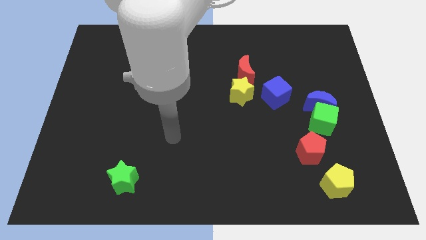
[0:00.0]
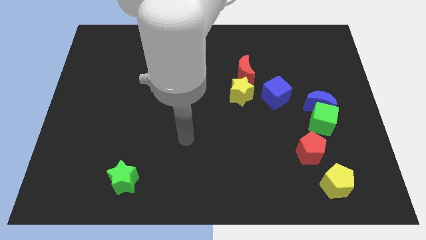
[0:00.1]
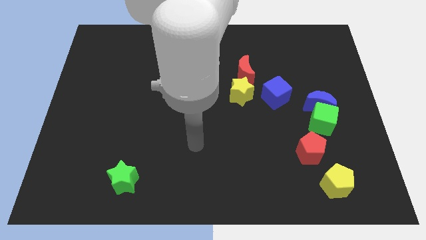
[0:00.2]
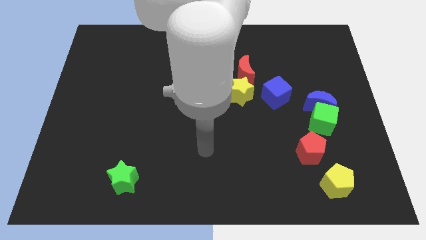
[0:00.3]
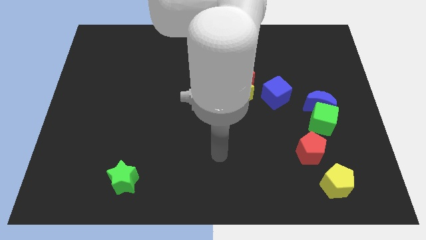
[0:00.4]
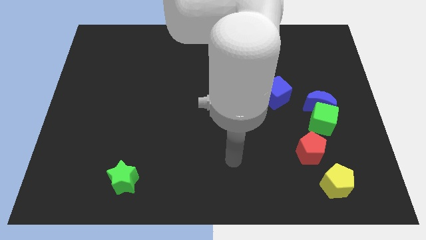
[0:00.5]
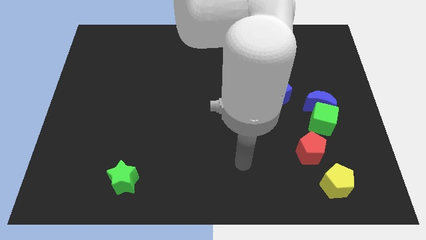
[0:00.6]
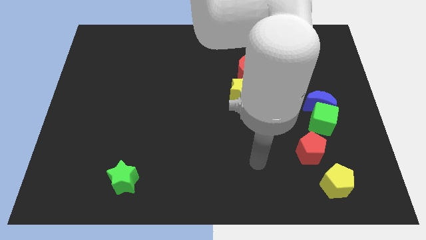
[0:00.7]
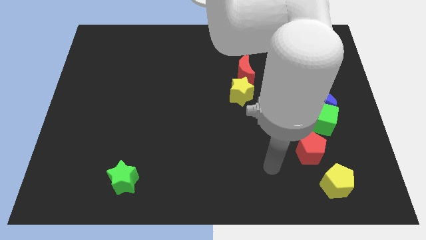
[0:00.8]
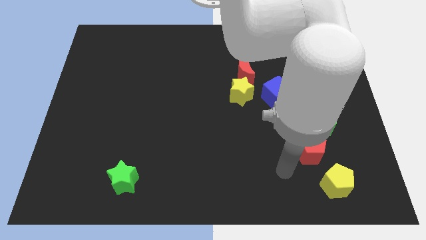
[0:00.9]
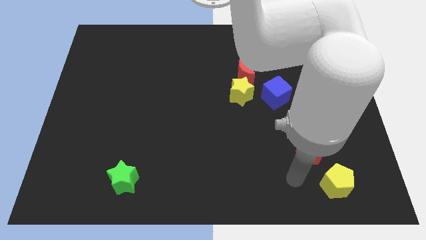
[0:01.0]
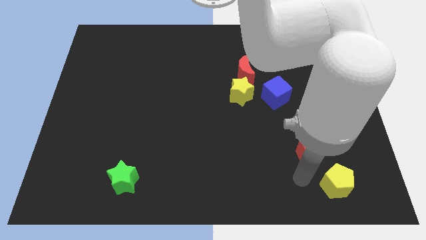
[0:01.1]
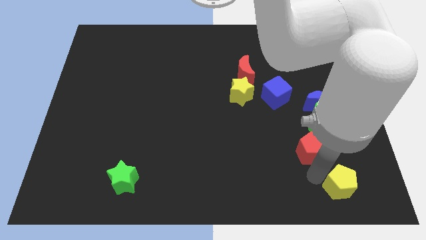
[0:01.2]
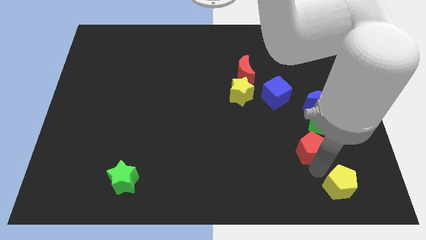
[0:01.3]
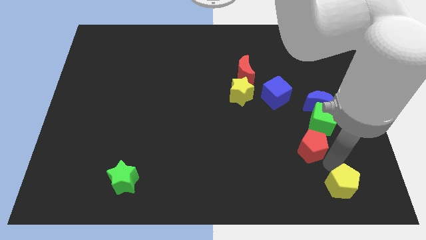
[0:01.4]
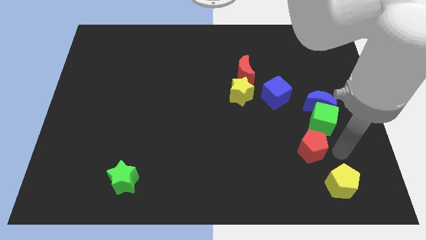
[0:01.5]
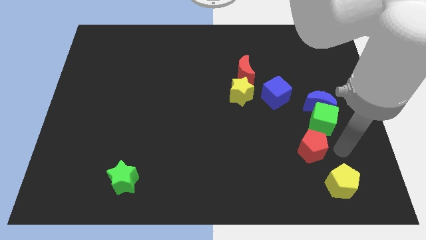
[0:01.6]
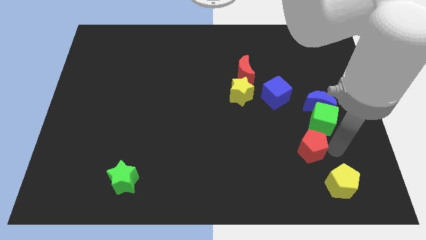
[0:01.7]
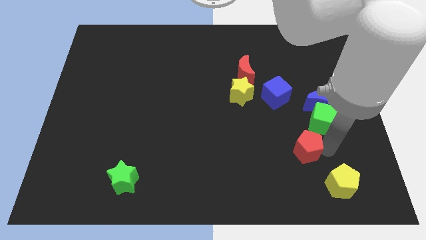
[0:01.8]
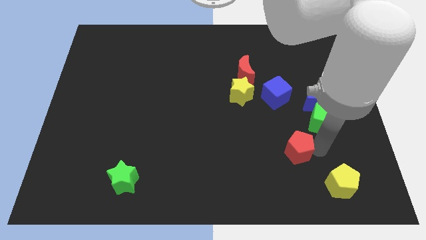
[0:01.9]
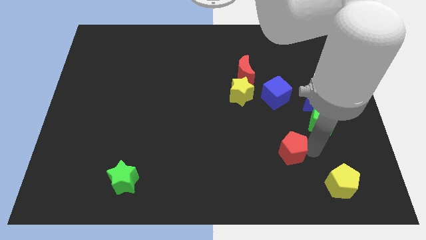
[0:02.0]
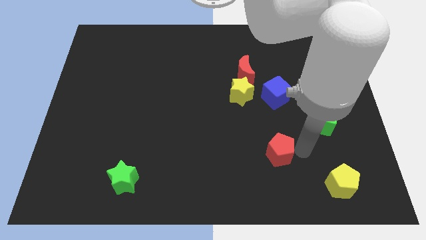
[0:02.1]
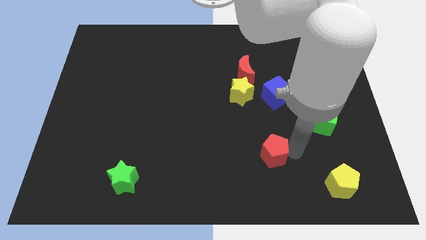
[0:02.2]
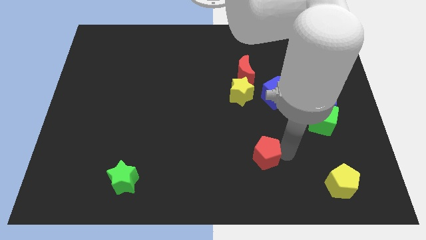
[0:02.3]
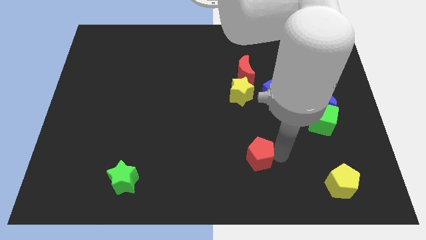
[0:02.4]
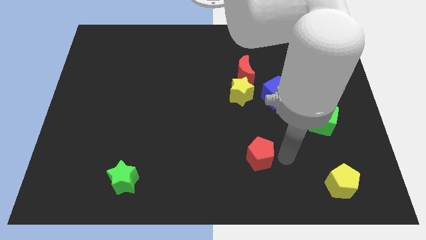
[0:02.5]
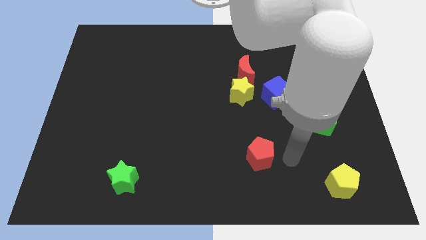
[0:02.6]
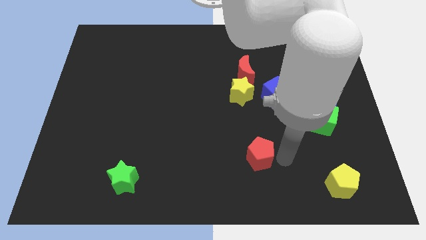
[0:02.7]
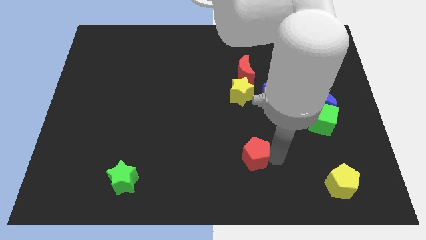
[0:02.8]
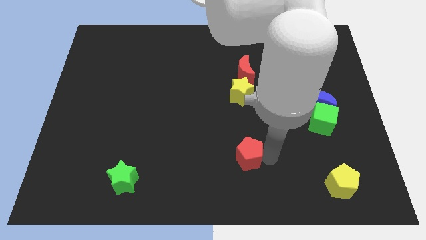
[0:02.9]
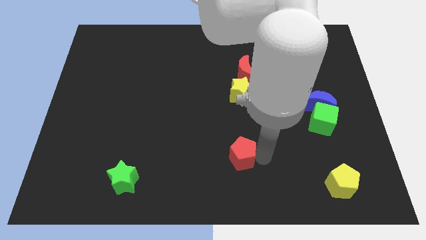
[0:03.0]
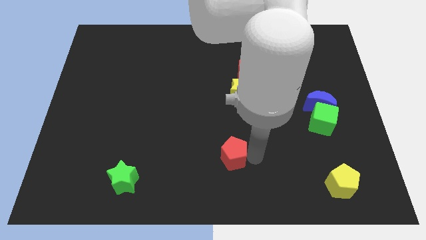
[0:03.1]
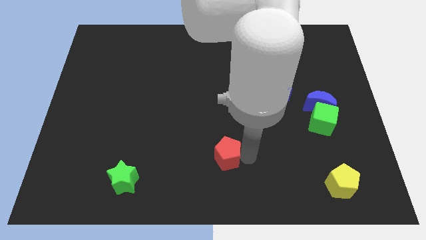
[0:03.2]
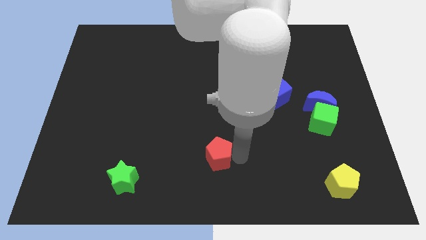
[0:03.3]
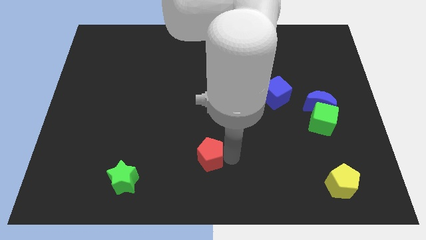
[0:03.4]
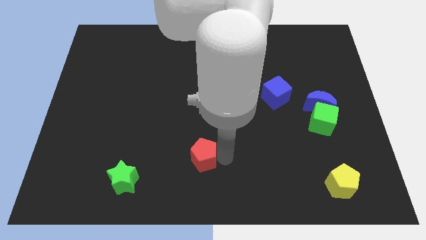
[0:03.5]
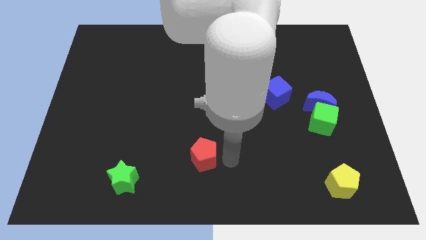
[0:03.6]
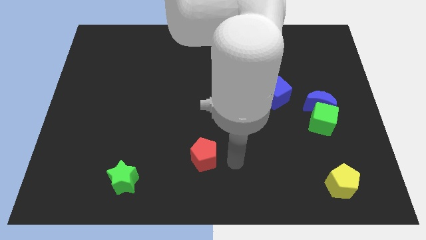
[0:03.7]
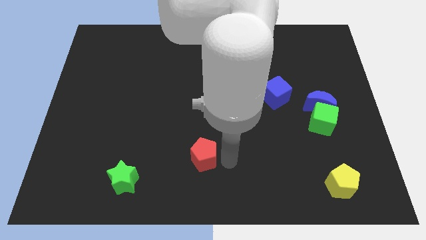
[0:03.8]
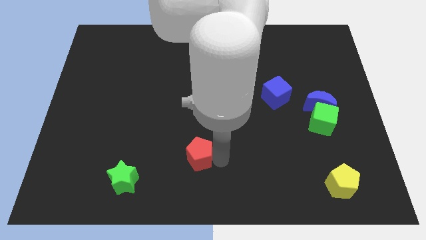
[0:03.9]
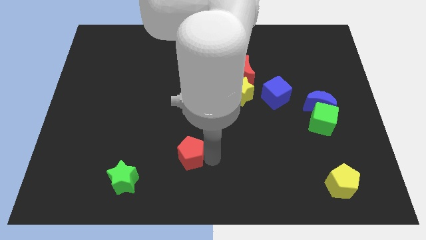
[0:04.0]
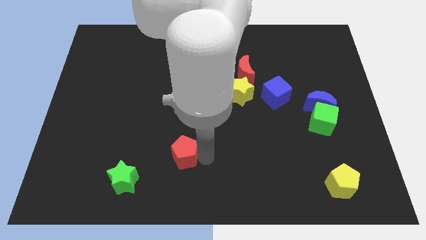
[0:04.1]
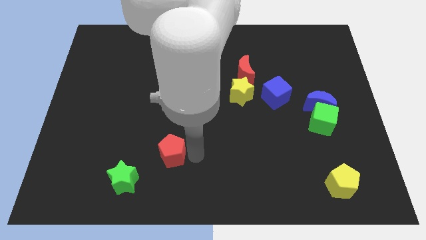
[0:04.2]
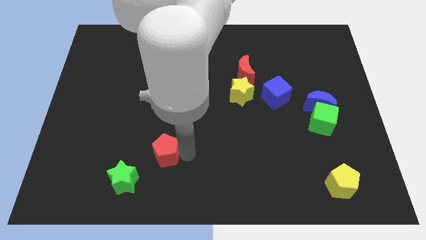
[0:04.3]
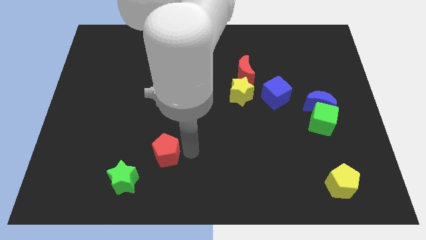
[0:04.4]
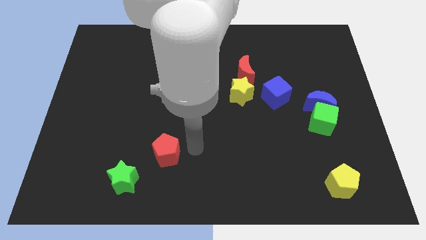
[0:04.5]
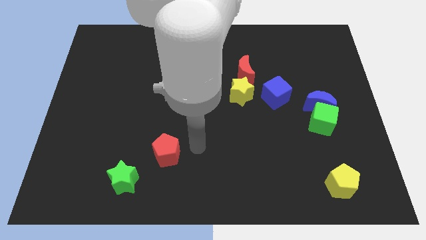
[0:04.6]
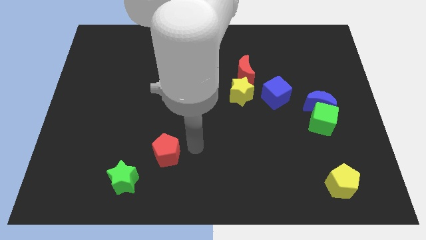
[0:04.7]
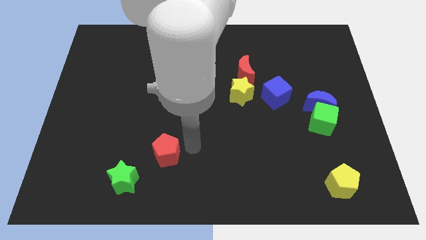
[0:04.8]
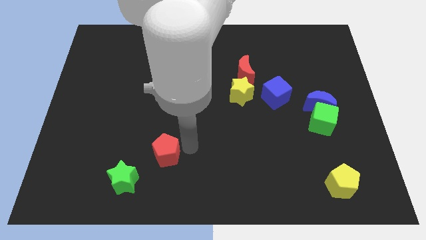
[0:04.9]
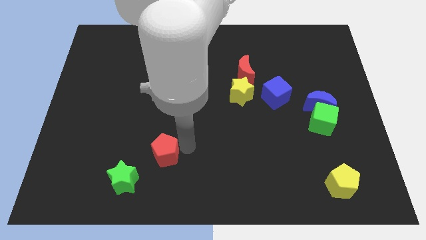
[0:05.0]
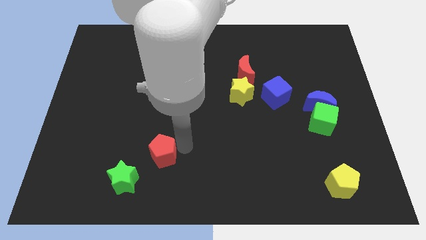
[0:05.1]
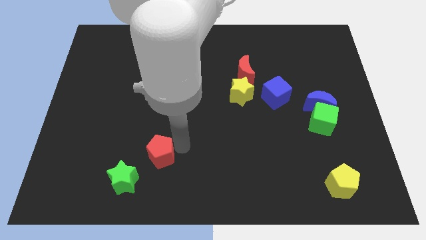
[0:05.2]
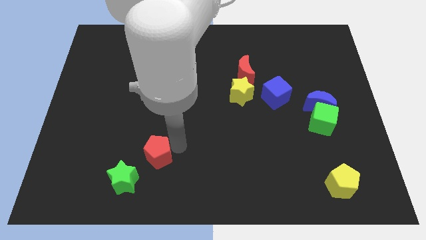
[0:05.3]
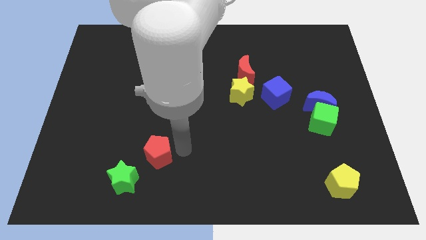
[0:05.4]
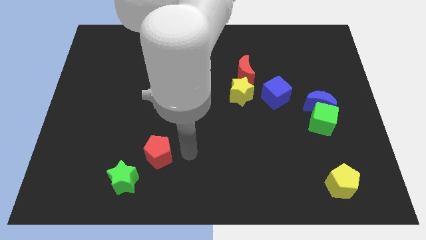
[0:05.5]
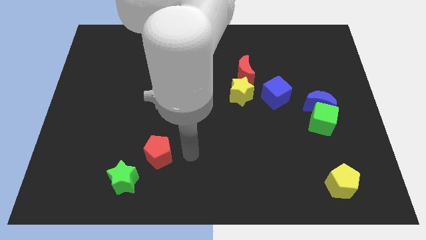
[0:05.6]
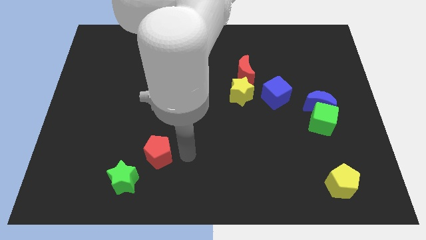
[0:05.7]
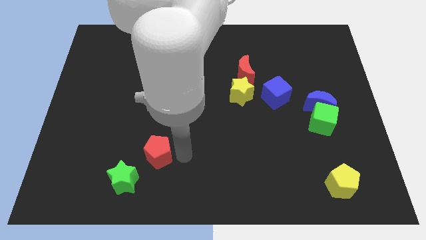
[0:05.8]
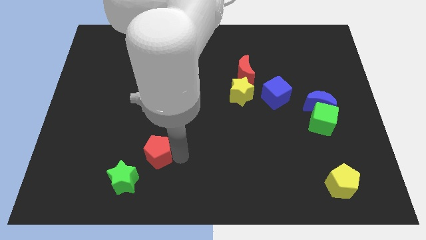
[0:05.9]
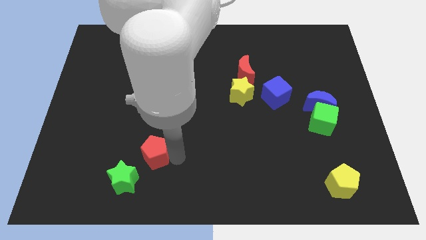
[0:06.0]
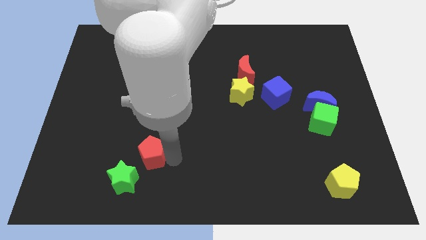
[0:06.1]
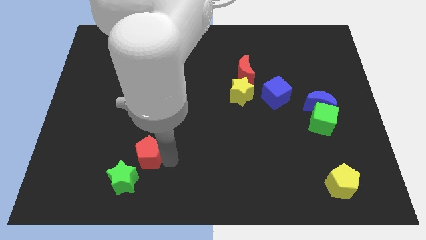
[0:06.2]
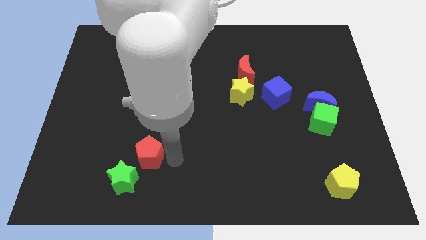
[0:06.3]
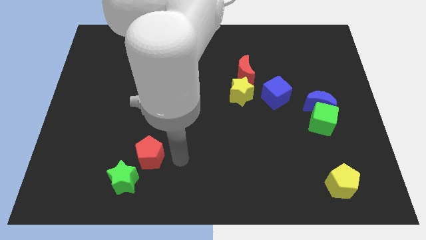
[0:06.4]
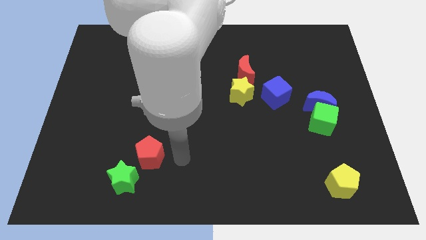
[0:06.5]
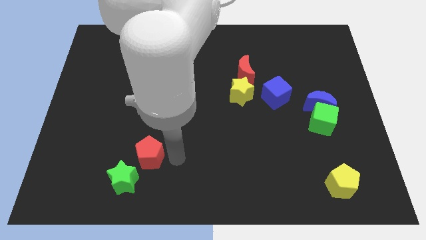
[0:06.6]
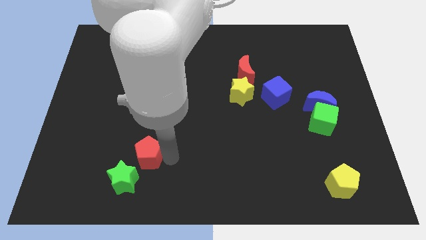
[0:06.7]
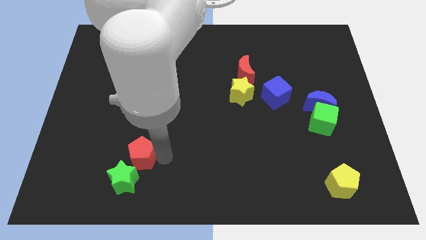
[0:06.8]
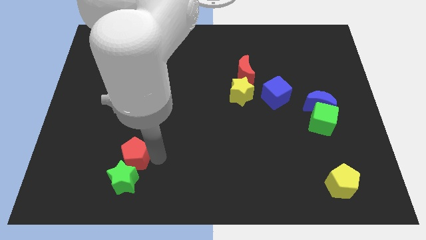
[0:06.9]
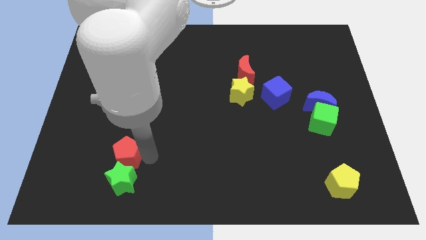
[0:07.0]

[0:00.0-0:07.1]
move the red pentagon to the top left of the green star

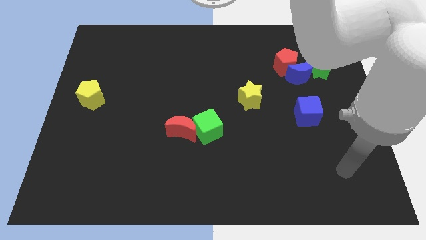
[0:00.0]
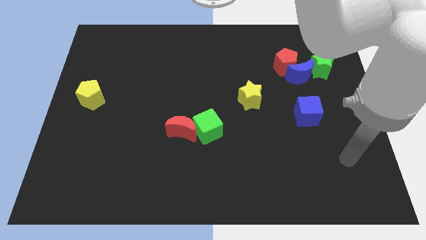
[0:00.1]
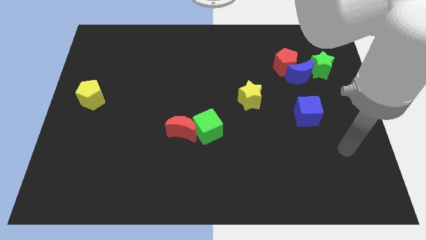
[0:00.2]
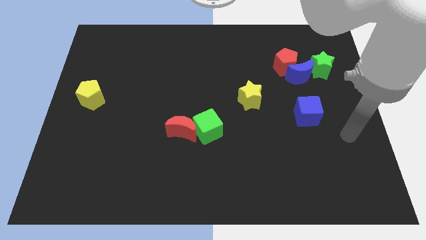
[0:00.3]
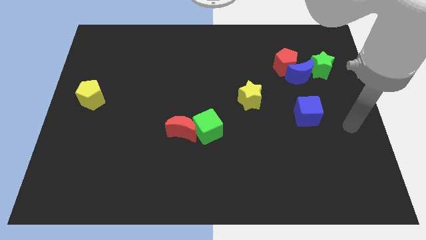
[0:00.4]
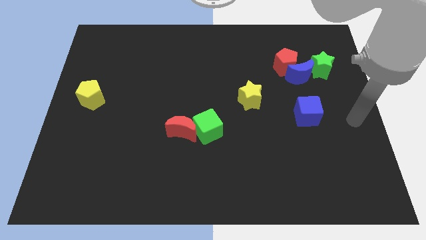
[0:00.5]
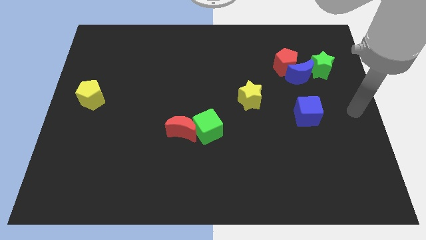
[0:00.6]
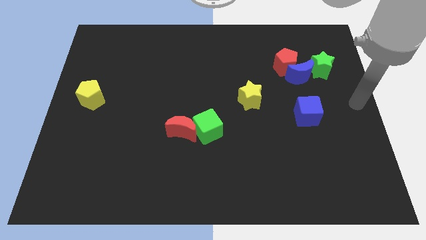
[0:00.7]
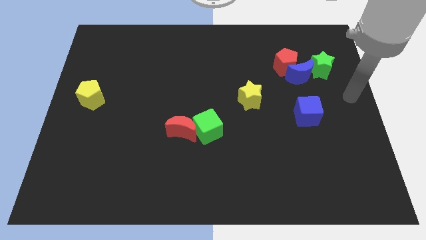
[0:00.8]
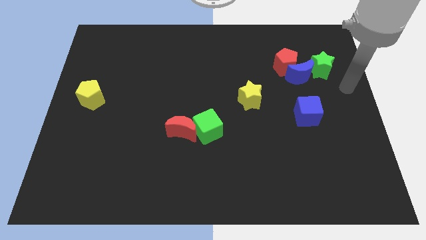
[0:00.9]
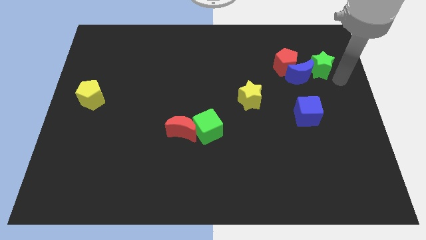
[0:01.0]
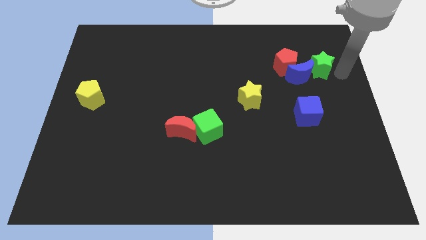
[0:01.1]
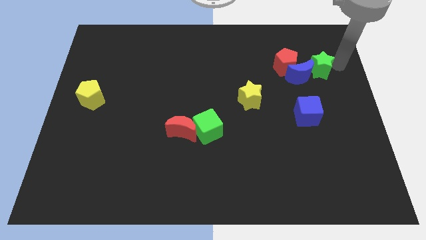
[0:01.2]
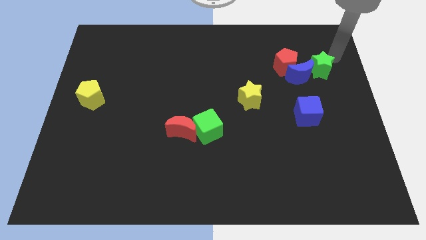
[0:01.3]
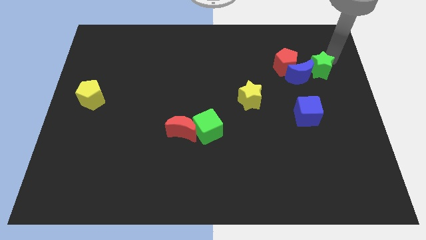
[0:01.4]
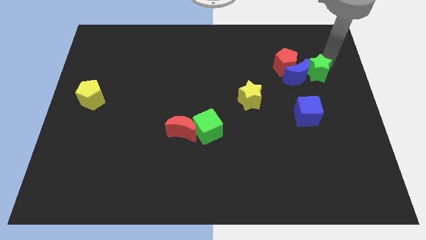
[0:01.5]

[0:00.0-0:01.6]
put the green star to the bottom right side of the red pentagon
